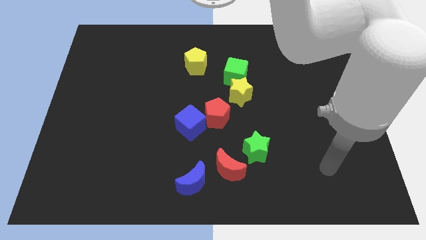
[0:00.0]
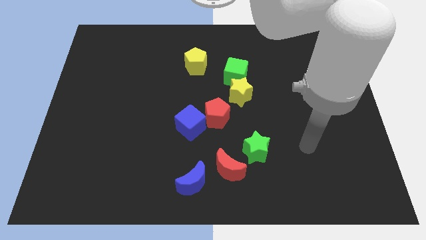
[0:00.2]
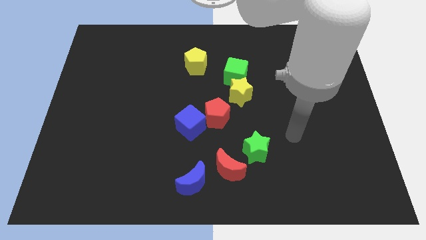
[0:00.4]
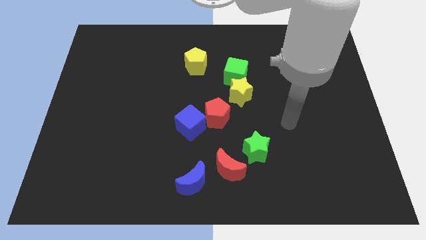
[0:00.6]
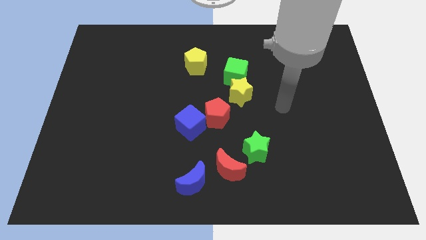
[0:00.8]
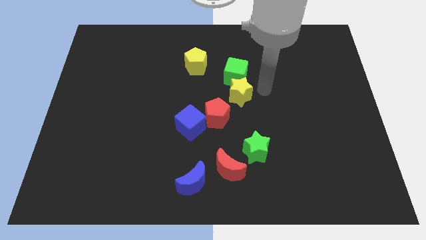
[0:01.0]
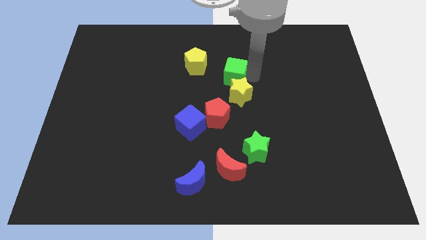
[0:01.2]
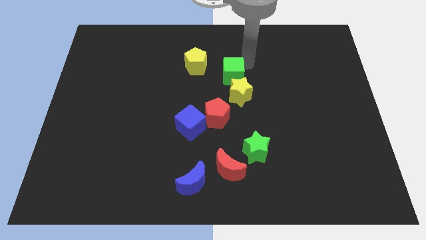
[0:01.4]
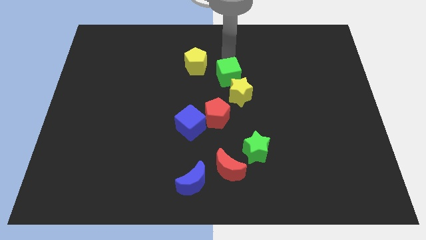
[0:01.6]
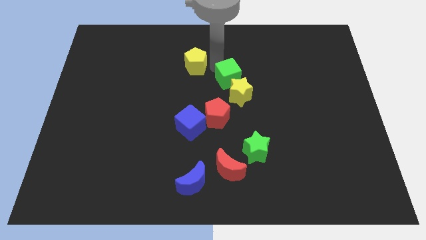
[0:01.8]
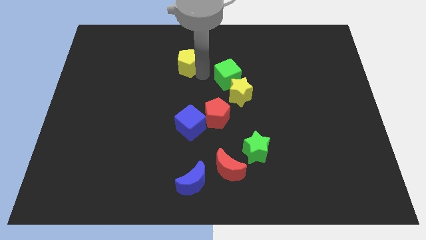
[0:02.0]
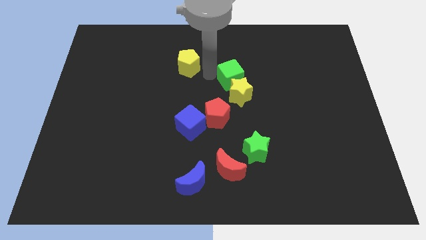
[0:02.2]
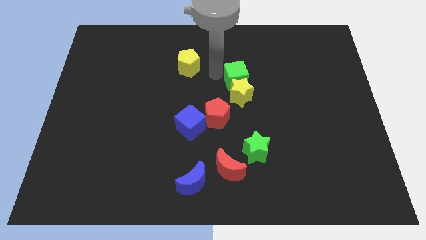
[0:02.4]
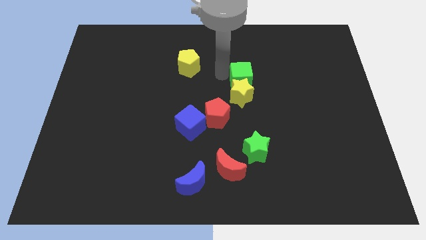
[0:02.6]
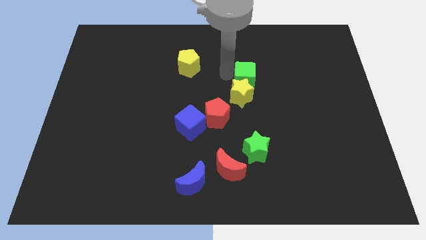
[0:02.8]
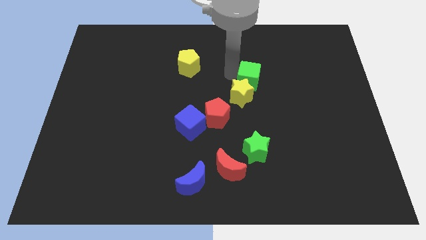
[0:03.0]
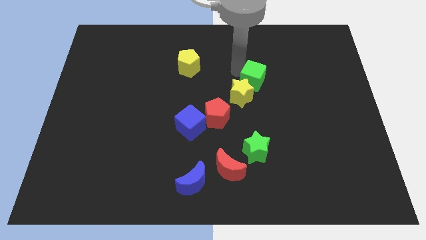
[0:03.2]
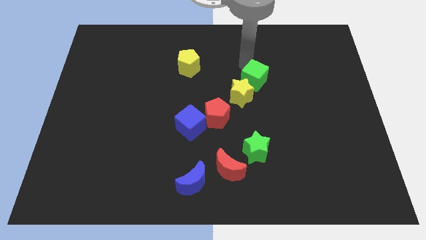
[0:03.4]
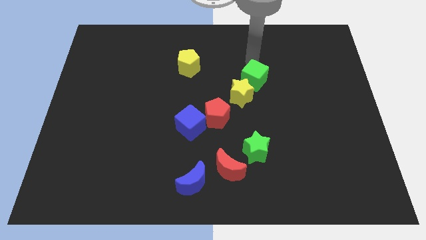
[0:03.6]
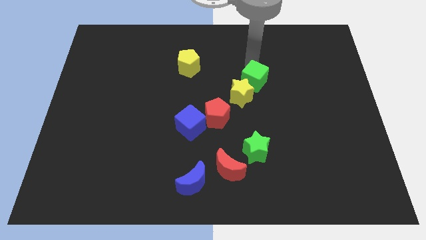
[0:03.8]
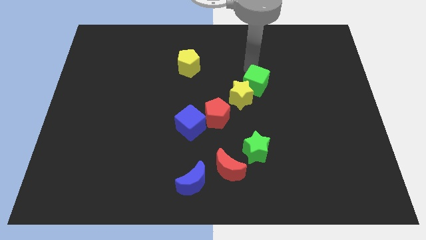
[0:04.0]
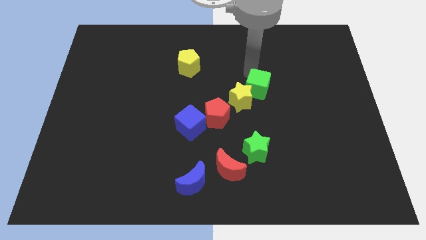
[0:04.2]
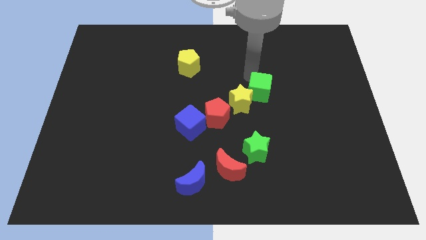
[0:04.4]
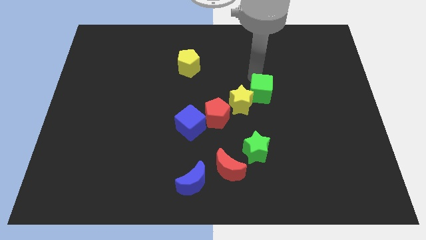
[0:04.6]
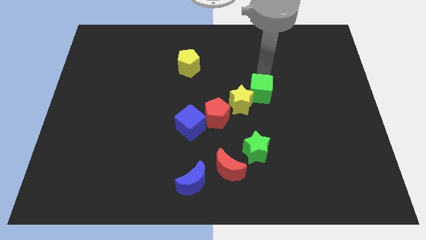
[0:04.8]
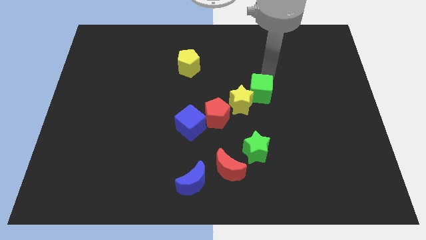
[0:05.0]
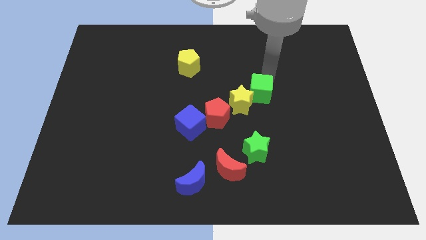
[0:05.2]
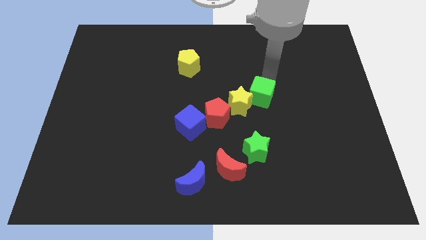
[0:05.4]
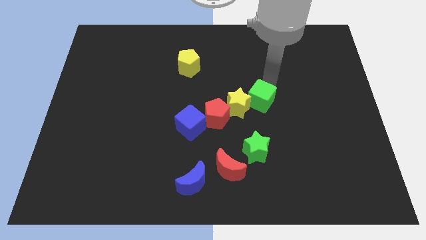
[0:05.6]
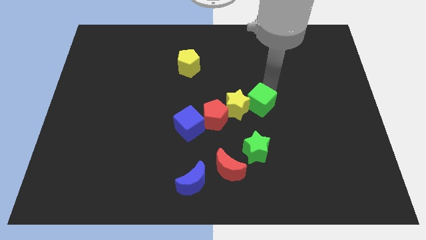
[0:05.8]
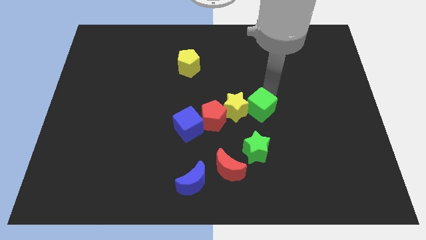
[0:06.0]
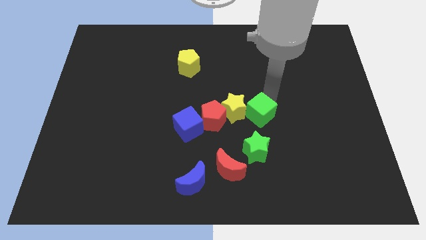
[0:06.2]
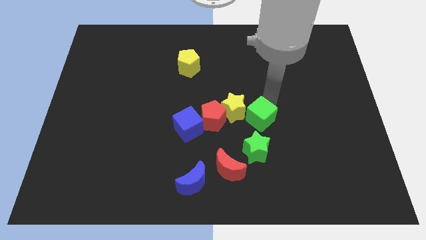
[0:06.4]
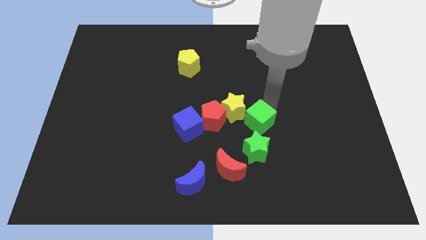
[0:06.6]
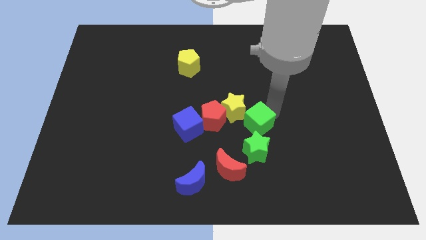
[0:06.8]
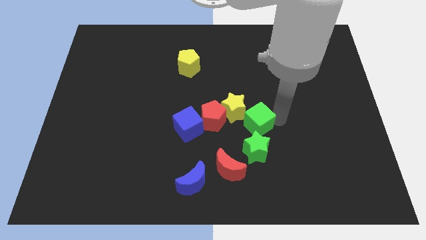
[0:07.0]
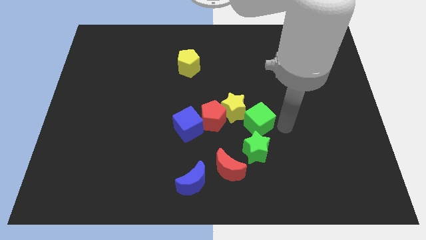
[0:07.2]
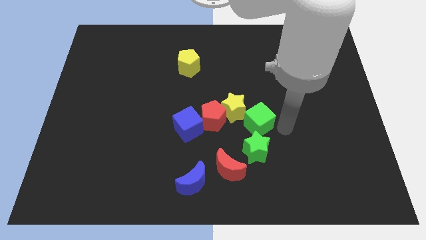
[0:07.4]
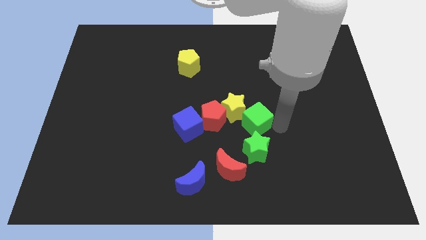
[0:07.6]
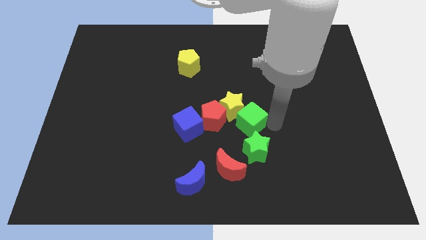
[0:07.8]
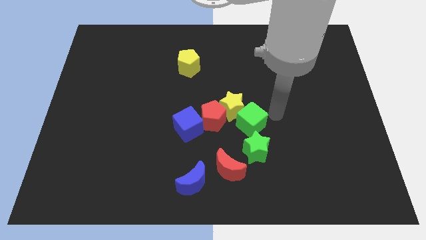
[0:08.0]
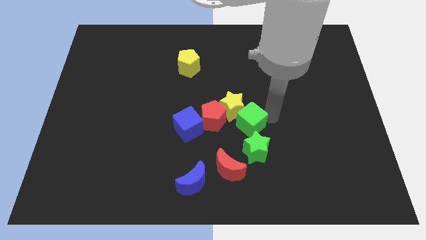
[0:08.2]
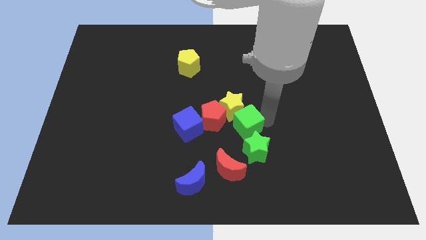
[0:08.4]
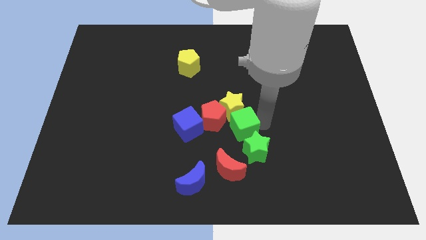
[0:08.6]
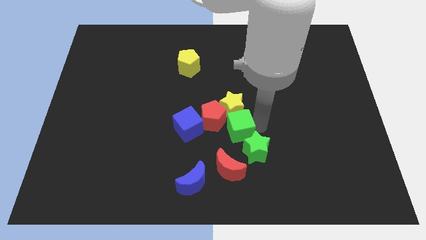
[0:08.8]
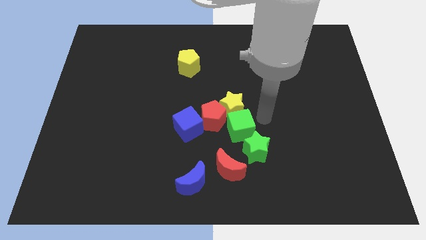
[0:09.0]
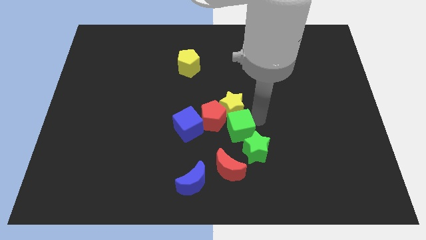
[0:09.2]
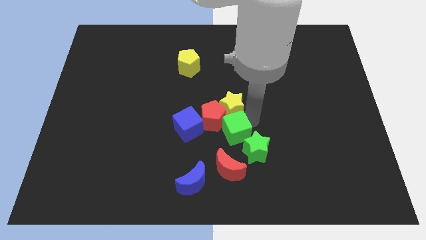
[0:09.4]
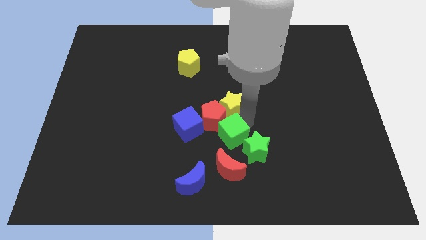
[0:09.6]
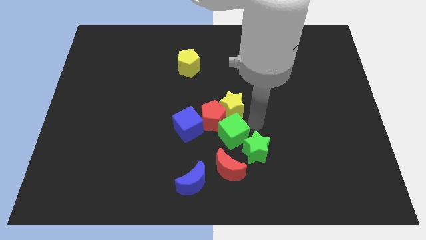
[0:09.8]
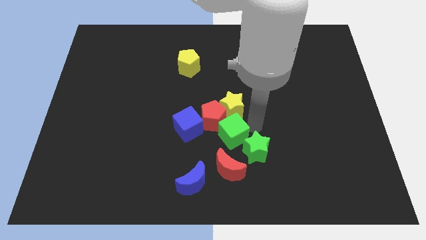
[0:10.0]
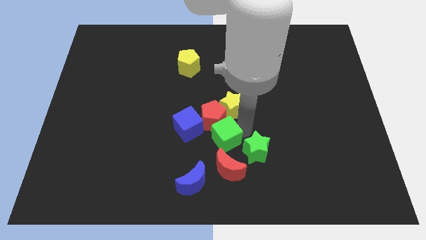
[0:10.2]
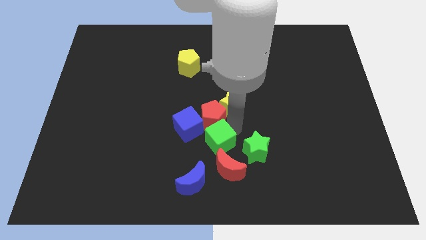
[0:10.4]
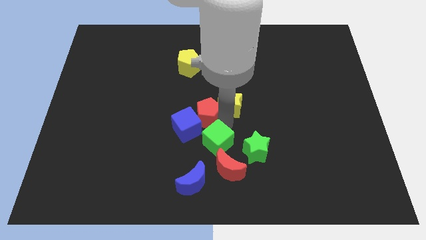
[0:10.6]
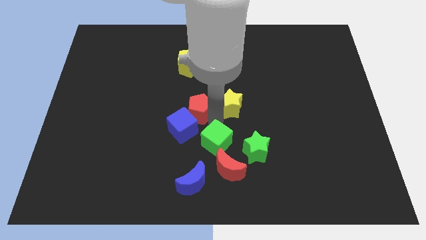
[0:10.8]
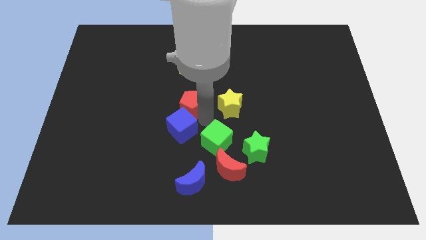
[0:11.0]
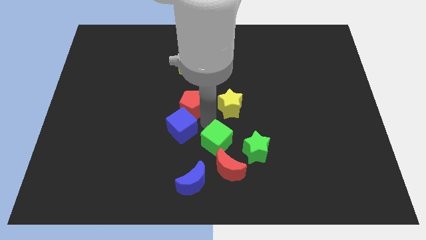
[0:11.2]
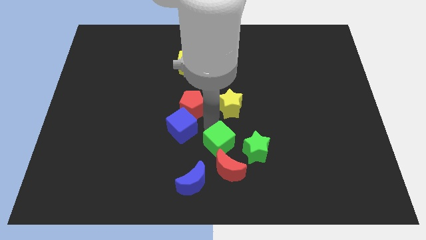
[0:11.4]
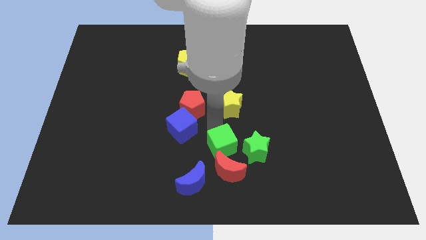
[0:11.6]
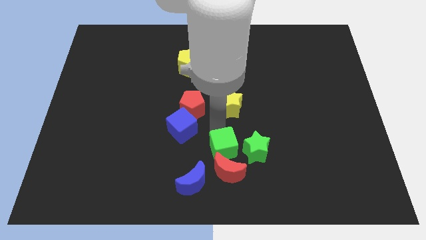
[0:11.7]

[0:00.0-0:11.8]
slide the green cube to the red moon

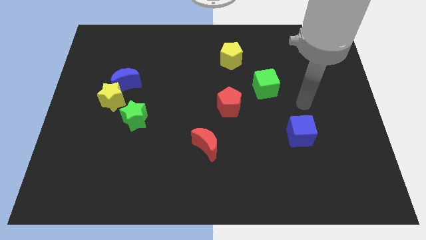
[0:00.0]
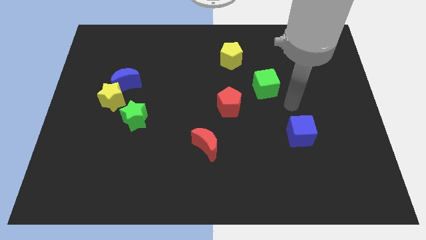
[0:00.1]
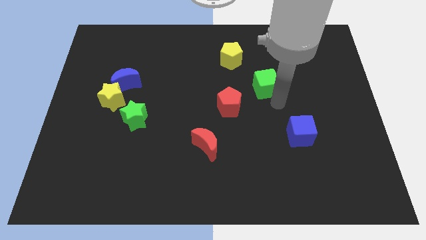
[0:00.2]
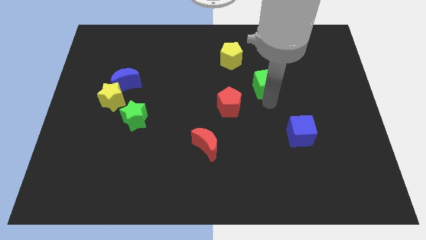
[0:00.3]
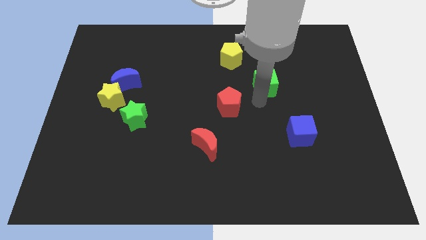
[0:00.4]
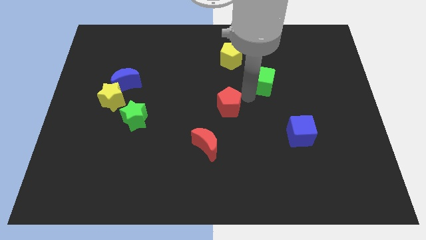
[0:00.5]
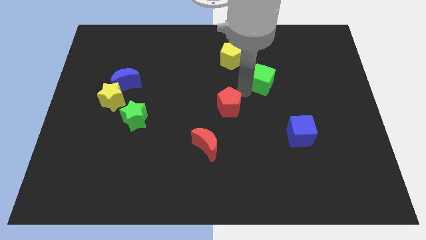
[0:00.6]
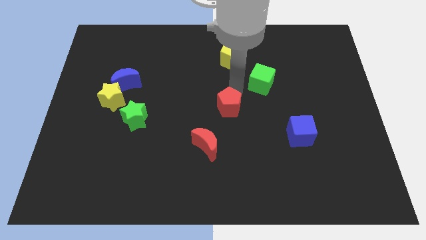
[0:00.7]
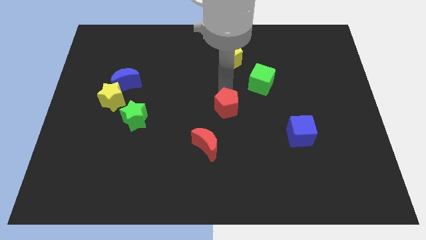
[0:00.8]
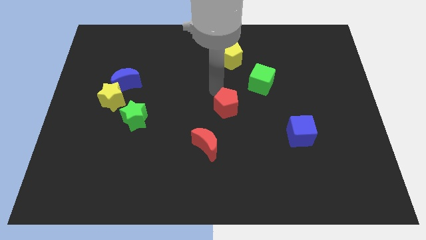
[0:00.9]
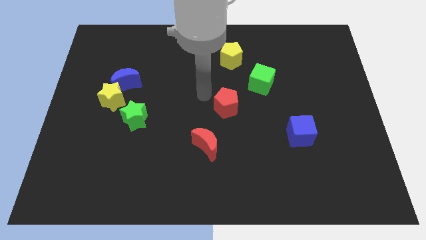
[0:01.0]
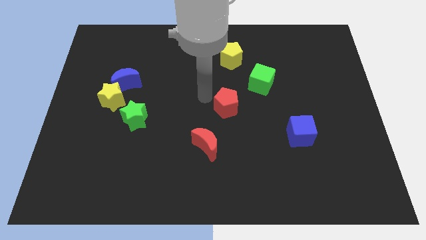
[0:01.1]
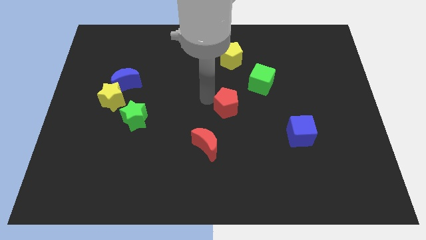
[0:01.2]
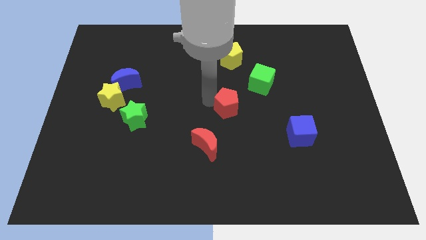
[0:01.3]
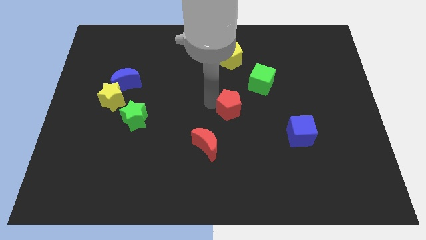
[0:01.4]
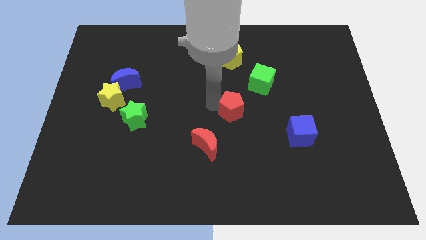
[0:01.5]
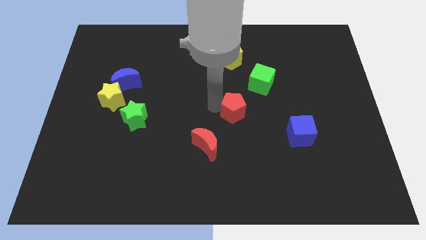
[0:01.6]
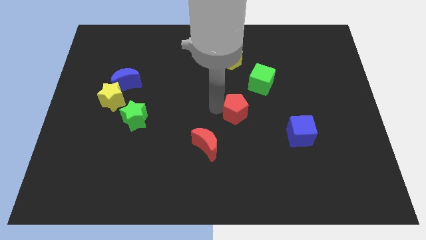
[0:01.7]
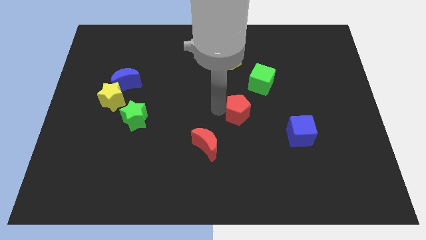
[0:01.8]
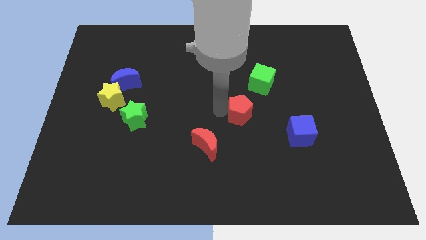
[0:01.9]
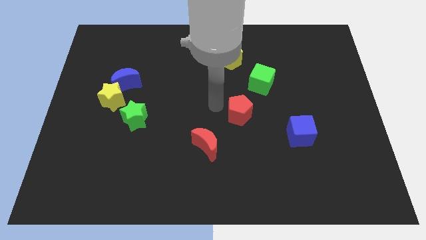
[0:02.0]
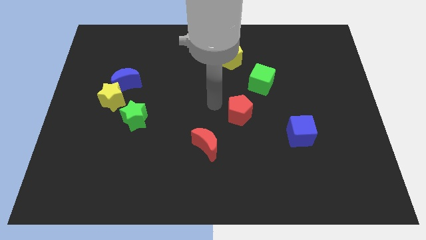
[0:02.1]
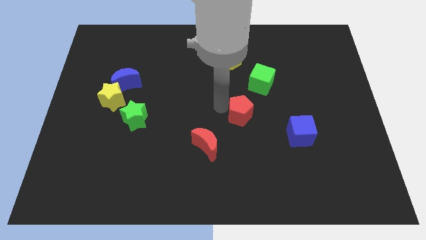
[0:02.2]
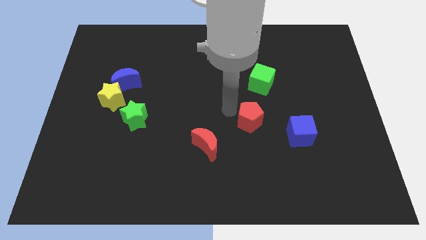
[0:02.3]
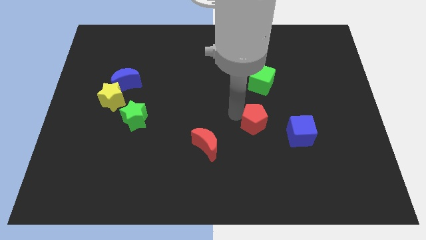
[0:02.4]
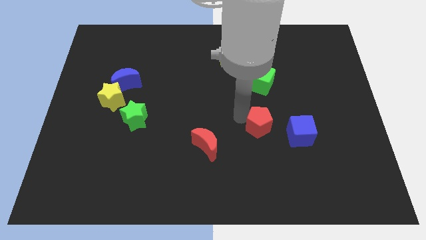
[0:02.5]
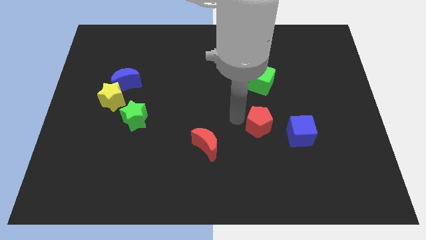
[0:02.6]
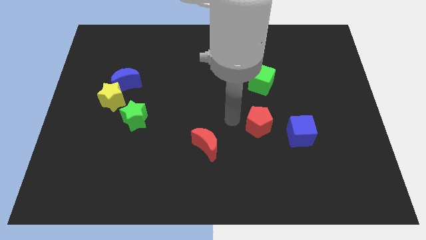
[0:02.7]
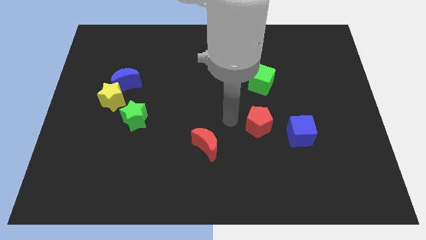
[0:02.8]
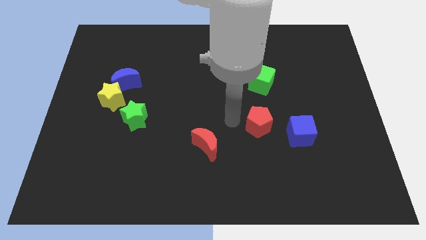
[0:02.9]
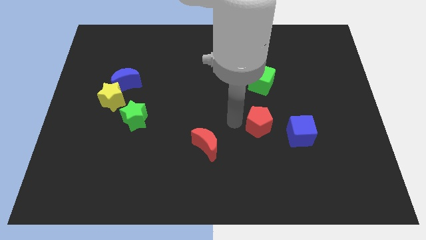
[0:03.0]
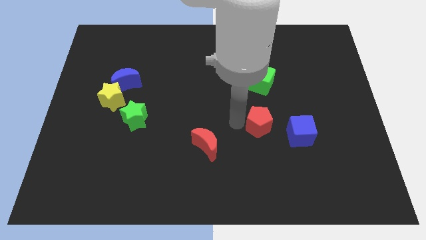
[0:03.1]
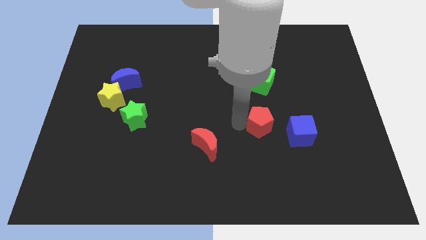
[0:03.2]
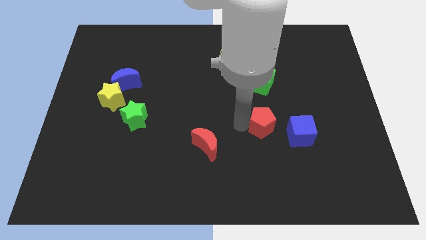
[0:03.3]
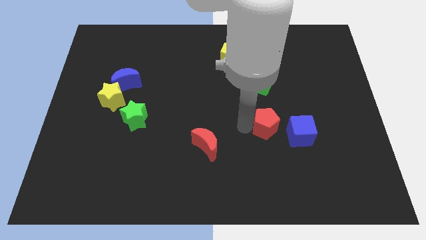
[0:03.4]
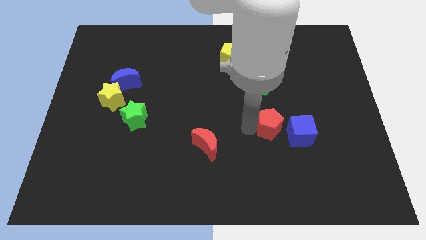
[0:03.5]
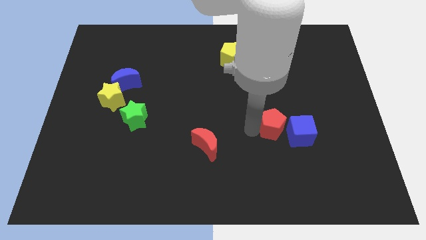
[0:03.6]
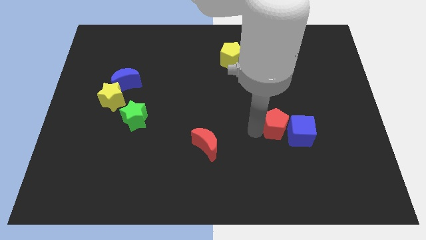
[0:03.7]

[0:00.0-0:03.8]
push the red pentagon close to the blue cube
